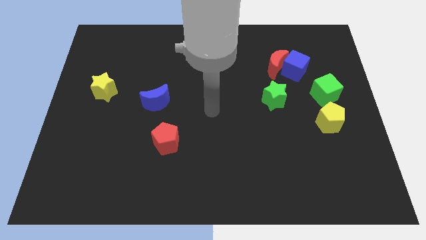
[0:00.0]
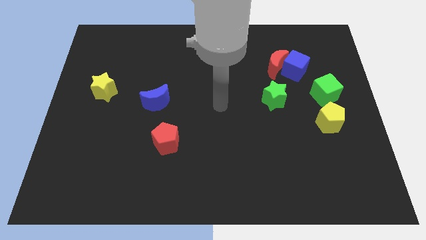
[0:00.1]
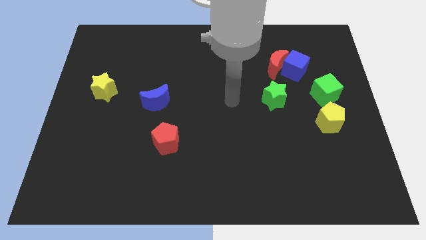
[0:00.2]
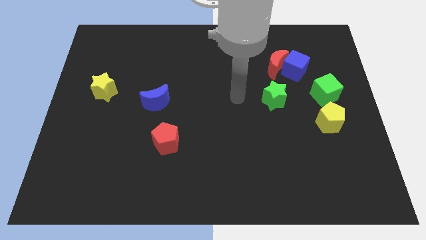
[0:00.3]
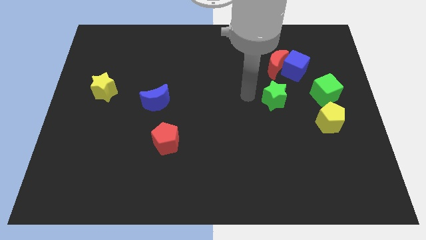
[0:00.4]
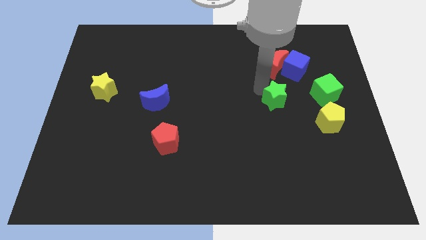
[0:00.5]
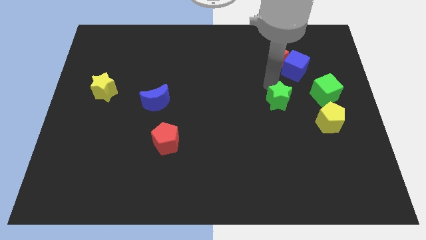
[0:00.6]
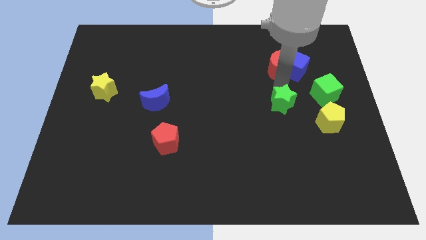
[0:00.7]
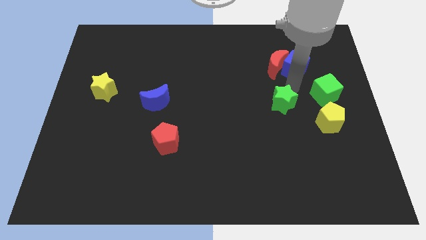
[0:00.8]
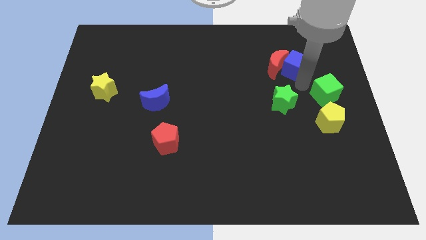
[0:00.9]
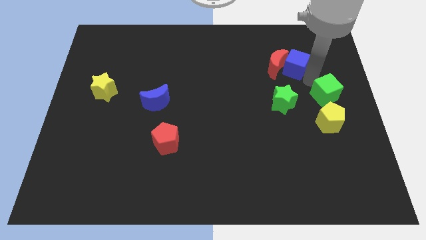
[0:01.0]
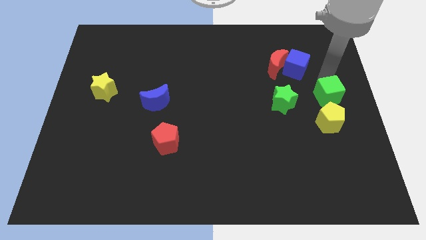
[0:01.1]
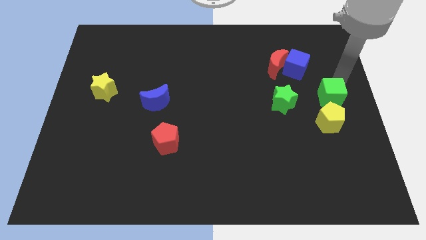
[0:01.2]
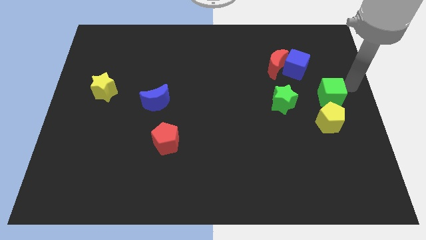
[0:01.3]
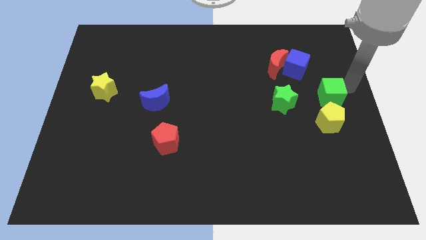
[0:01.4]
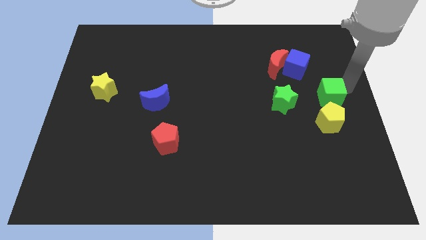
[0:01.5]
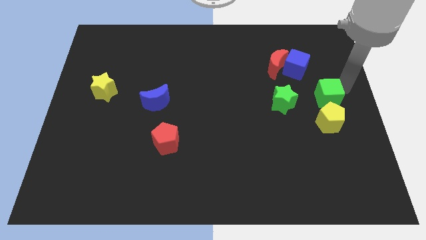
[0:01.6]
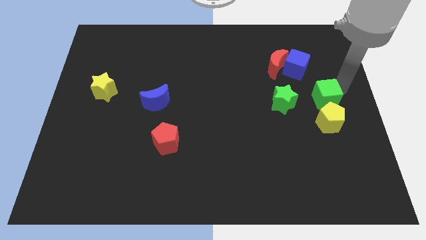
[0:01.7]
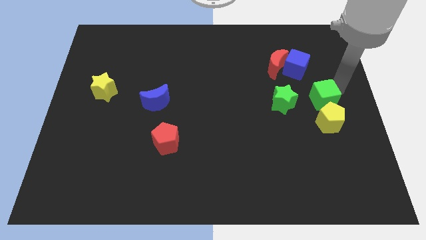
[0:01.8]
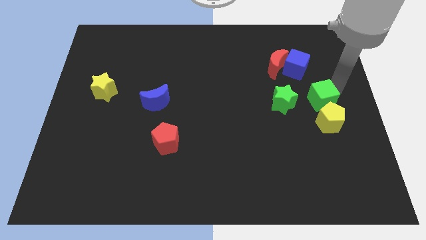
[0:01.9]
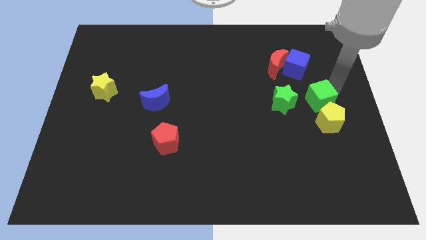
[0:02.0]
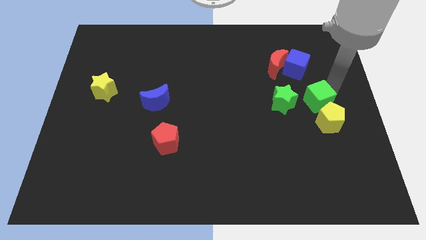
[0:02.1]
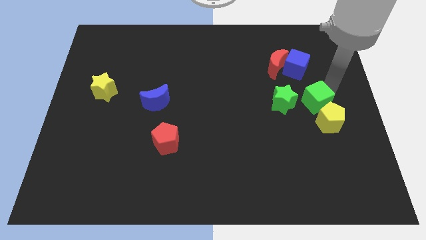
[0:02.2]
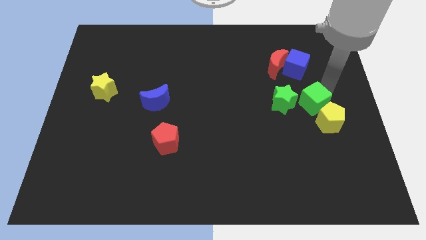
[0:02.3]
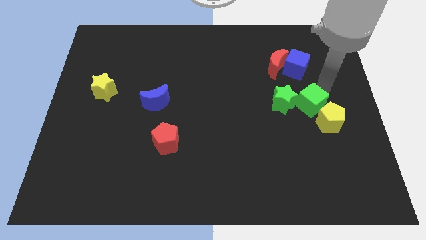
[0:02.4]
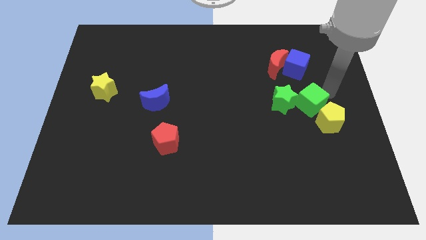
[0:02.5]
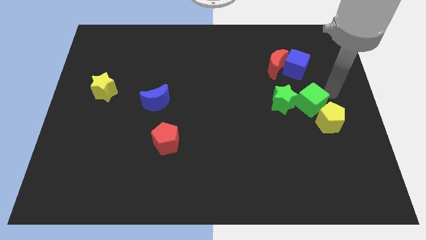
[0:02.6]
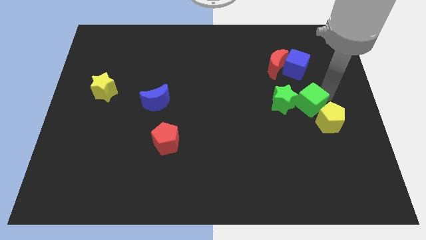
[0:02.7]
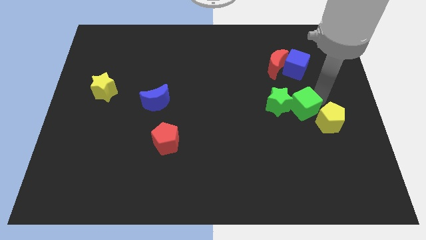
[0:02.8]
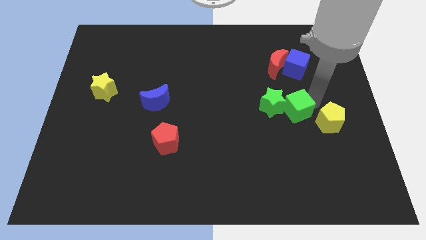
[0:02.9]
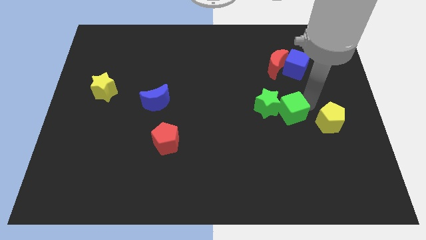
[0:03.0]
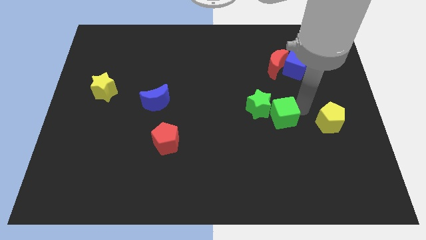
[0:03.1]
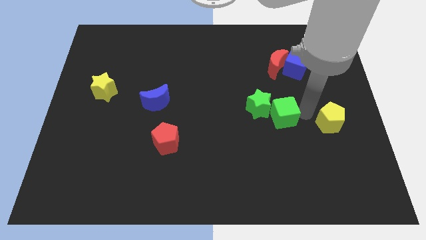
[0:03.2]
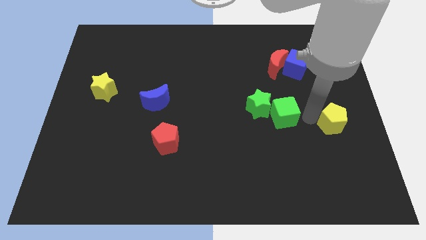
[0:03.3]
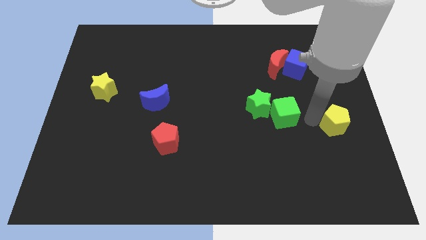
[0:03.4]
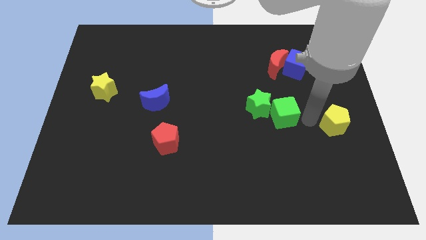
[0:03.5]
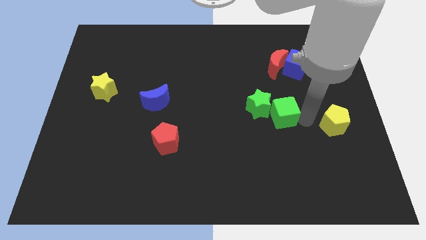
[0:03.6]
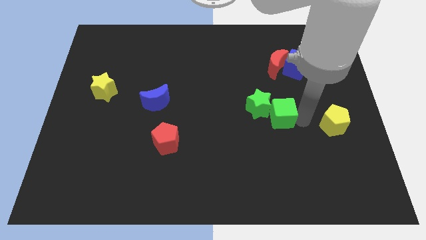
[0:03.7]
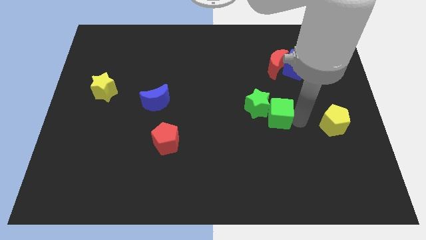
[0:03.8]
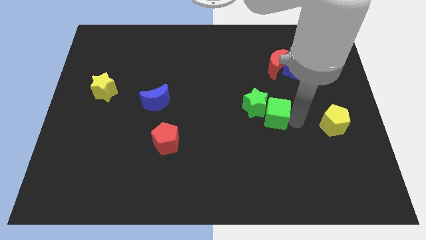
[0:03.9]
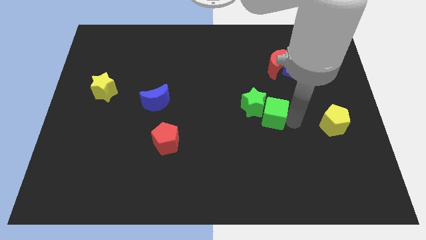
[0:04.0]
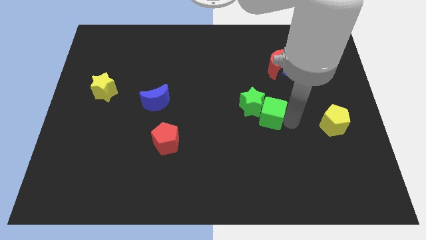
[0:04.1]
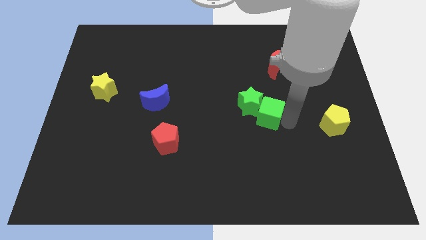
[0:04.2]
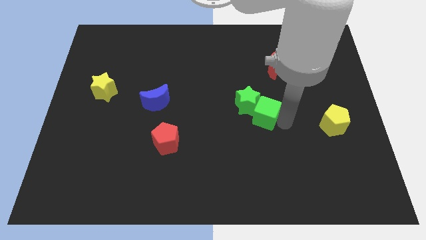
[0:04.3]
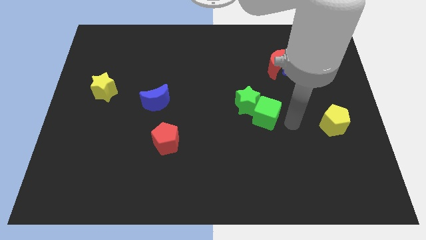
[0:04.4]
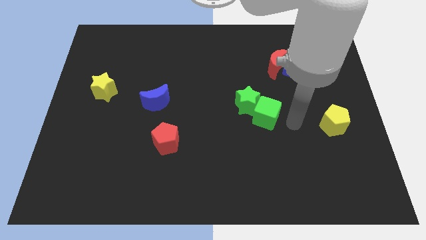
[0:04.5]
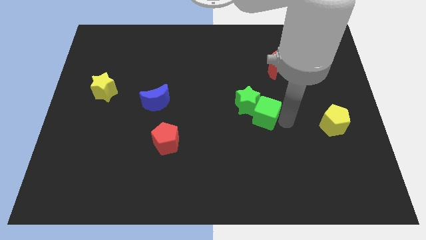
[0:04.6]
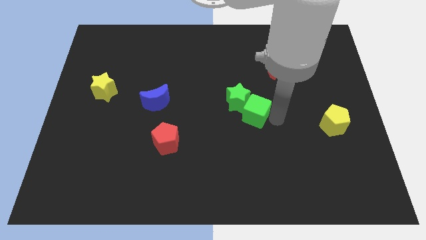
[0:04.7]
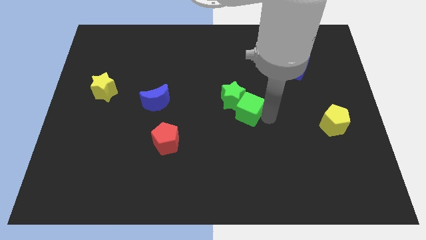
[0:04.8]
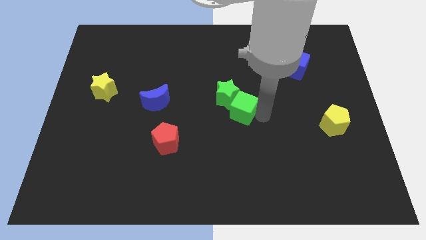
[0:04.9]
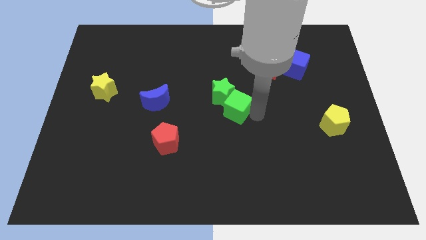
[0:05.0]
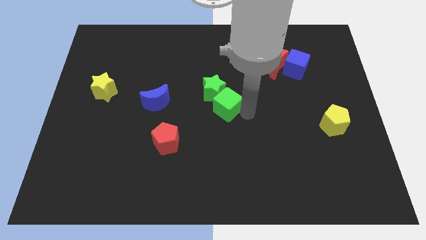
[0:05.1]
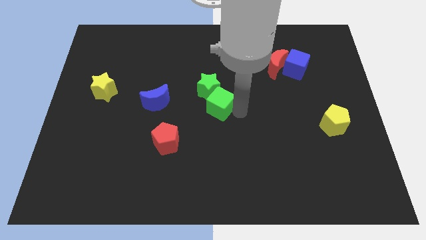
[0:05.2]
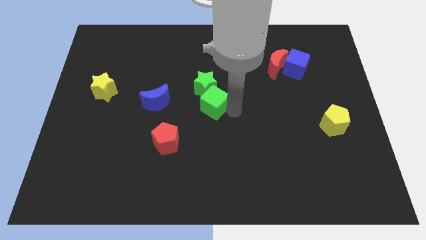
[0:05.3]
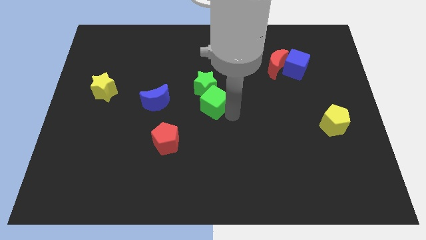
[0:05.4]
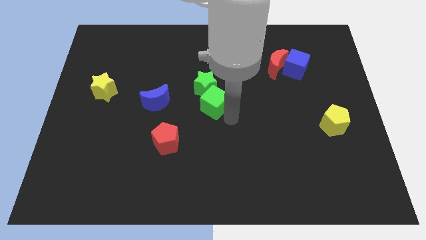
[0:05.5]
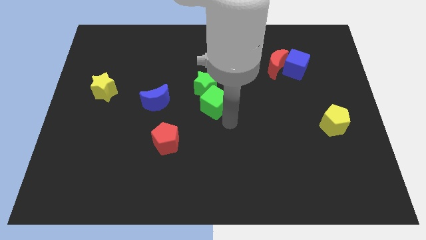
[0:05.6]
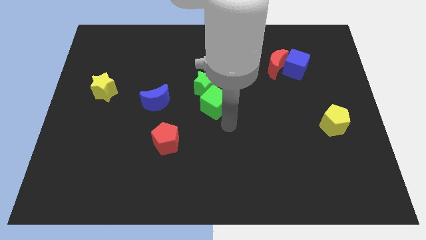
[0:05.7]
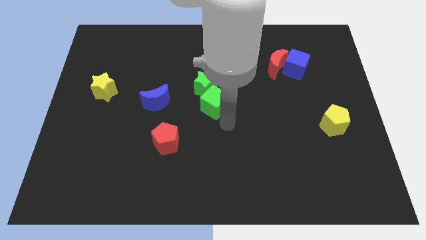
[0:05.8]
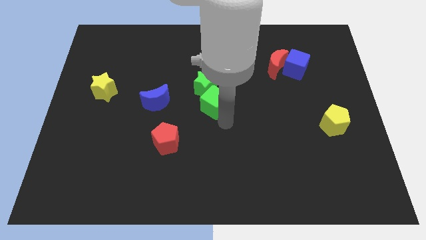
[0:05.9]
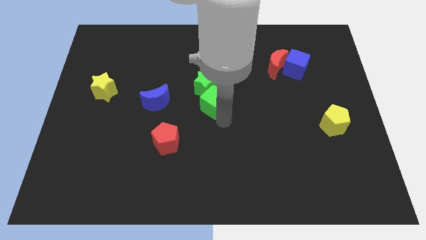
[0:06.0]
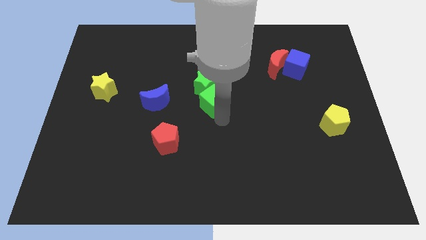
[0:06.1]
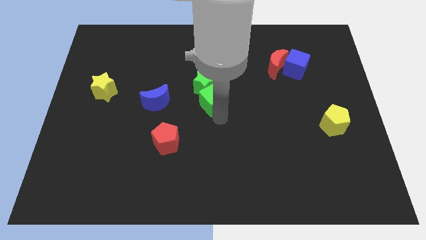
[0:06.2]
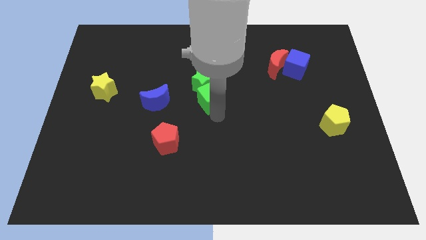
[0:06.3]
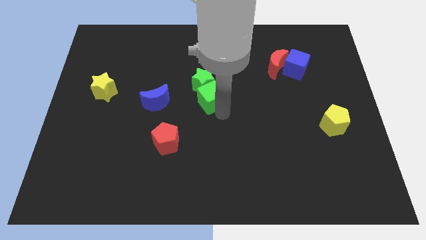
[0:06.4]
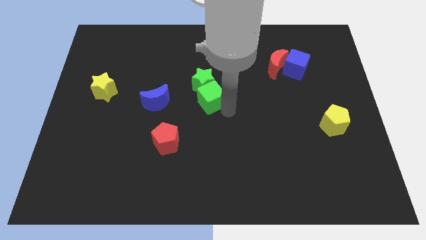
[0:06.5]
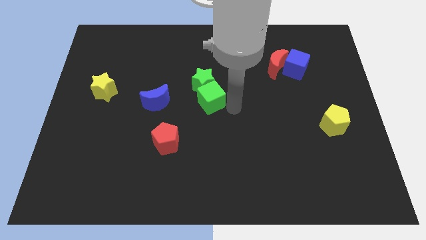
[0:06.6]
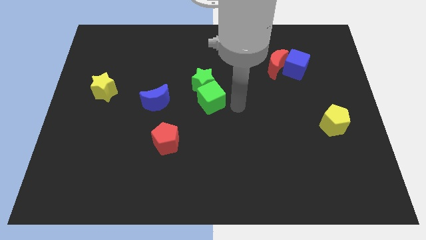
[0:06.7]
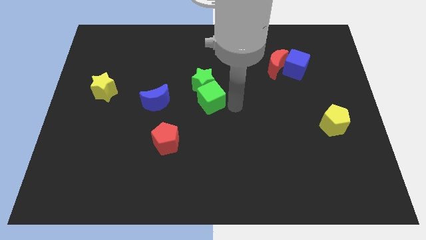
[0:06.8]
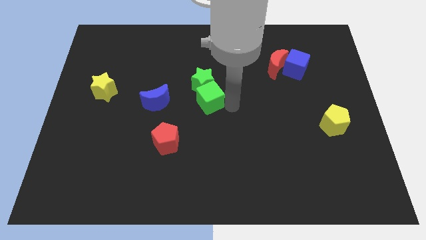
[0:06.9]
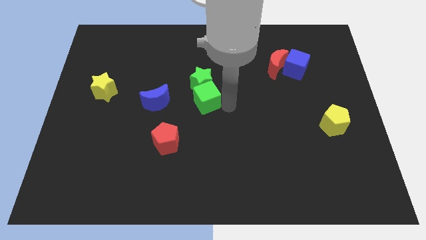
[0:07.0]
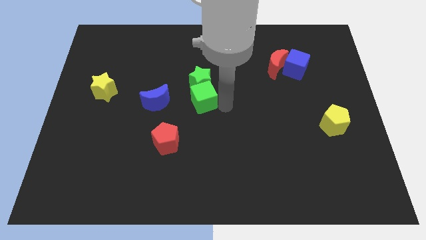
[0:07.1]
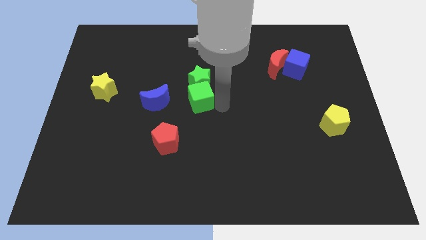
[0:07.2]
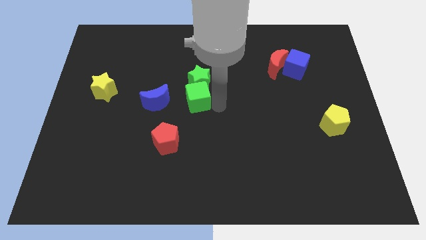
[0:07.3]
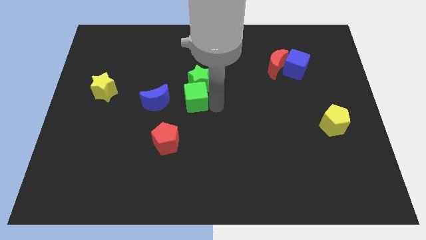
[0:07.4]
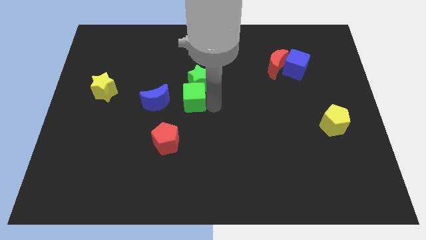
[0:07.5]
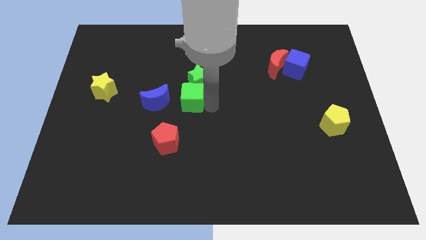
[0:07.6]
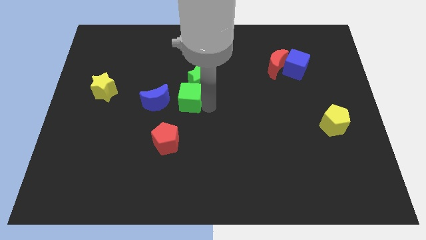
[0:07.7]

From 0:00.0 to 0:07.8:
slide the green cube above the red pentagon
